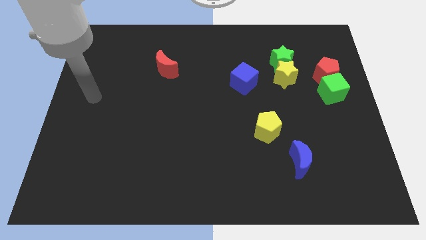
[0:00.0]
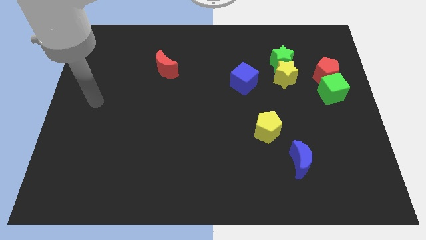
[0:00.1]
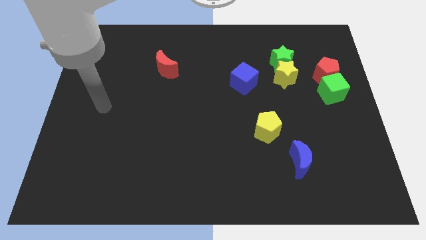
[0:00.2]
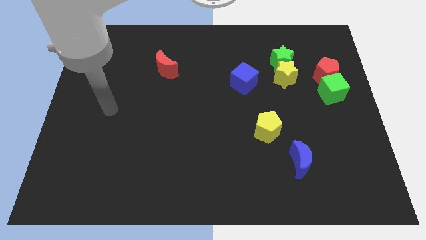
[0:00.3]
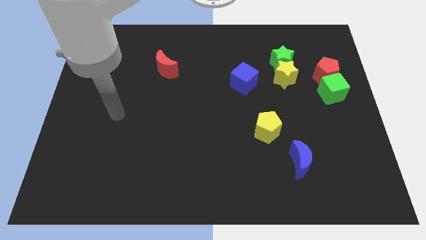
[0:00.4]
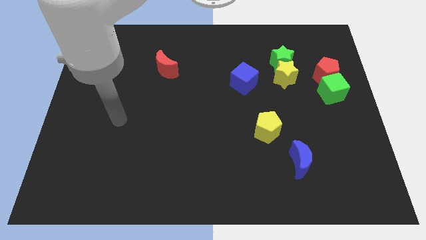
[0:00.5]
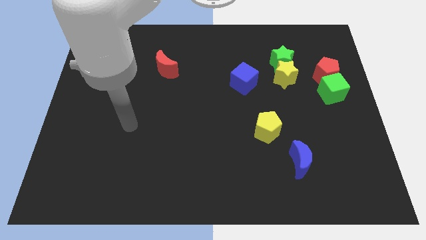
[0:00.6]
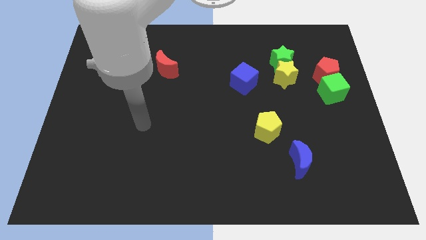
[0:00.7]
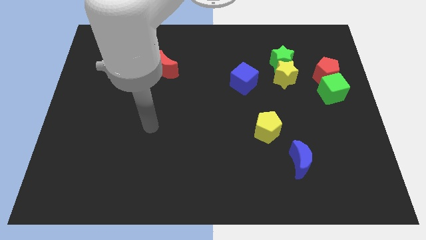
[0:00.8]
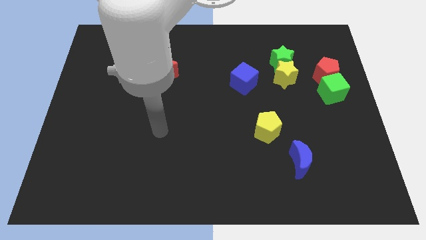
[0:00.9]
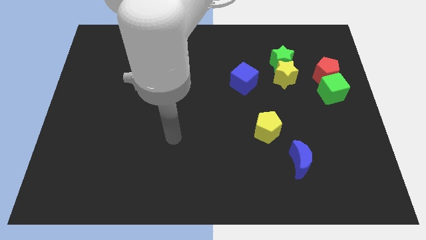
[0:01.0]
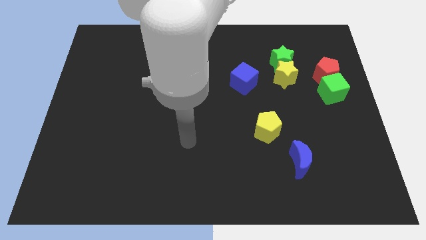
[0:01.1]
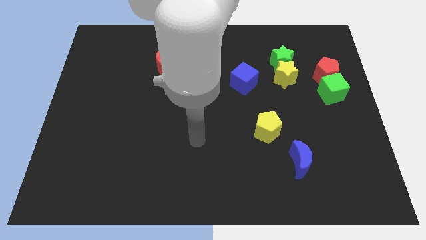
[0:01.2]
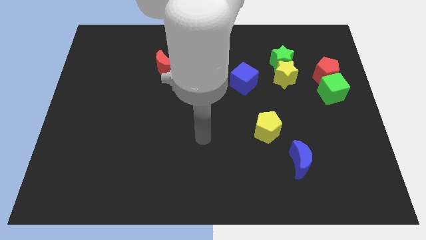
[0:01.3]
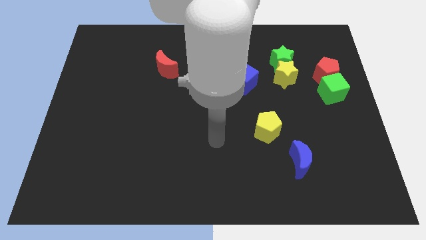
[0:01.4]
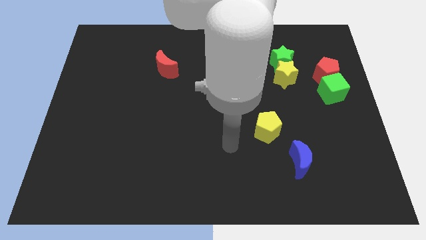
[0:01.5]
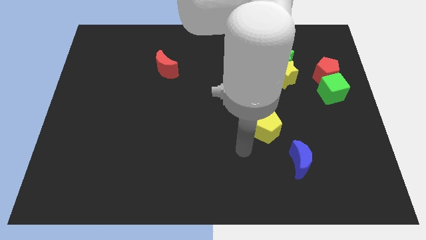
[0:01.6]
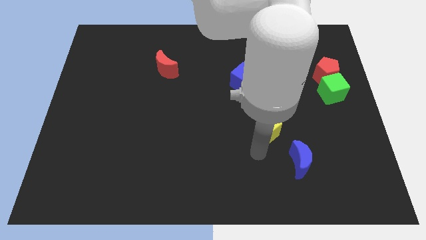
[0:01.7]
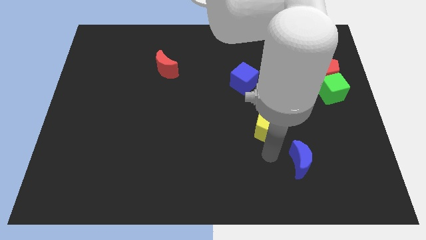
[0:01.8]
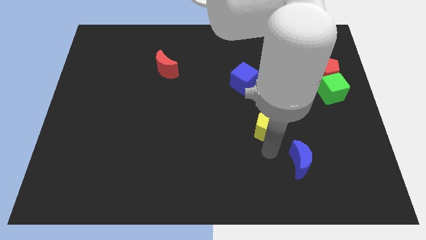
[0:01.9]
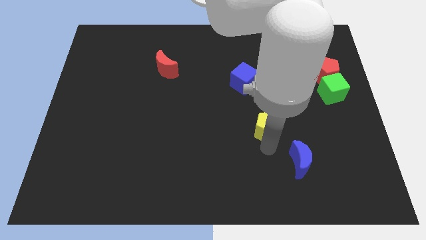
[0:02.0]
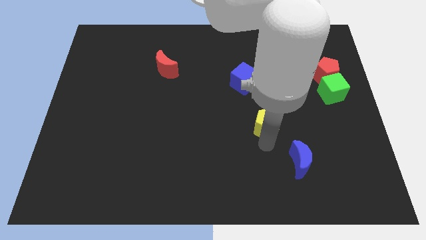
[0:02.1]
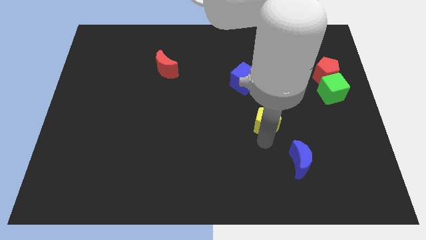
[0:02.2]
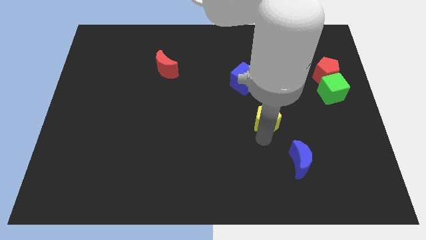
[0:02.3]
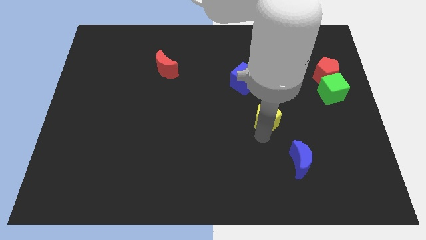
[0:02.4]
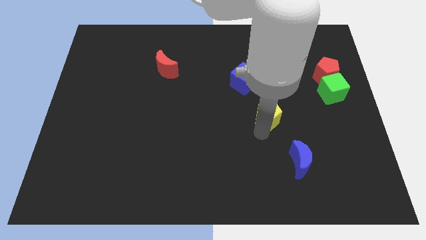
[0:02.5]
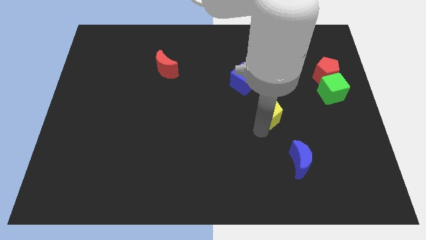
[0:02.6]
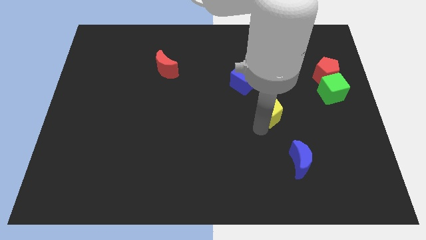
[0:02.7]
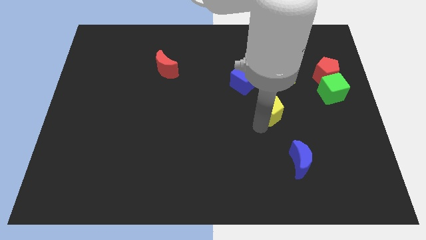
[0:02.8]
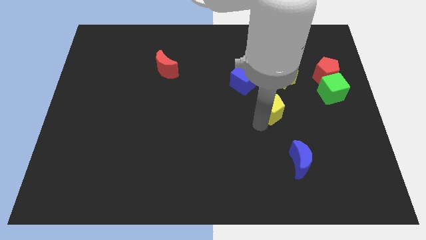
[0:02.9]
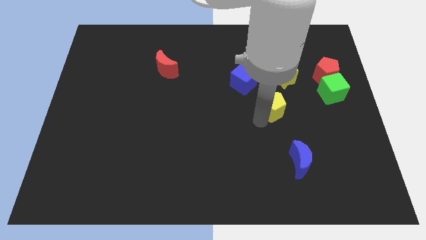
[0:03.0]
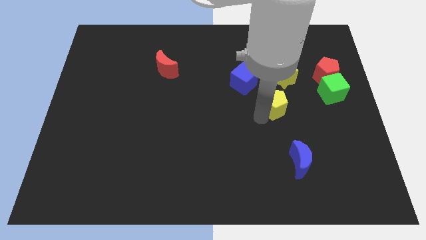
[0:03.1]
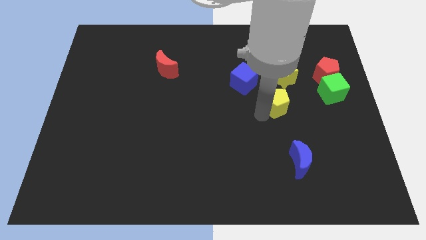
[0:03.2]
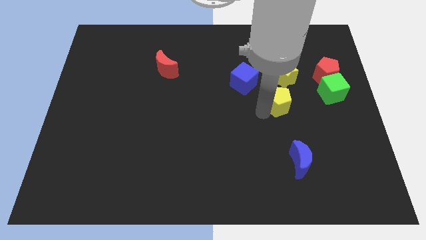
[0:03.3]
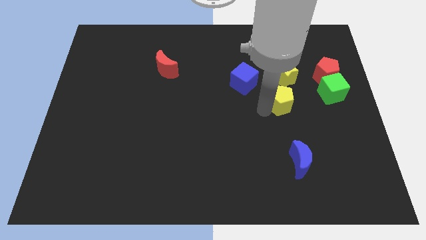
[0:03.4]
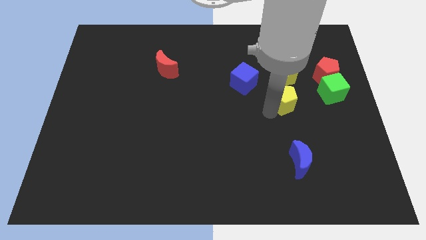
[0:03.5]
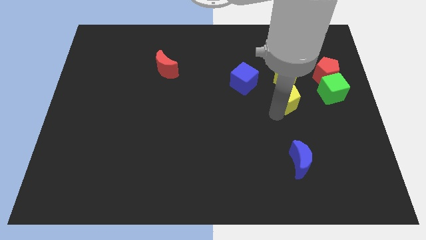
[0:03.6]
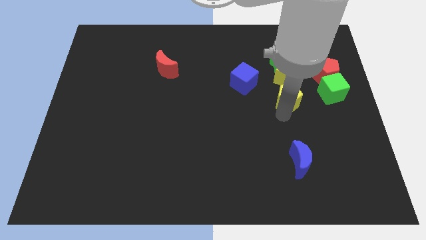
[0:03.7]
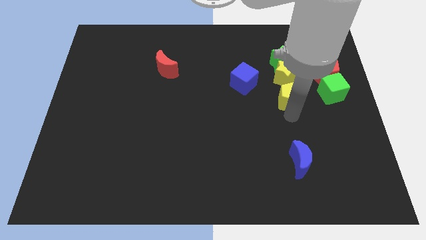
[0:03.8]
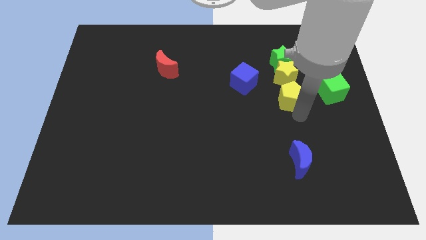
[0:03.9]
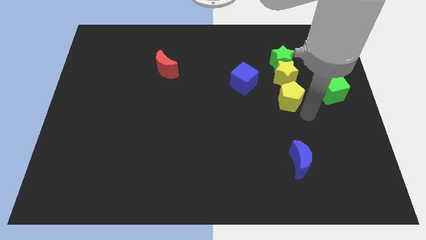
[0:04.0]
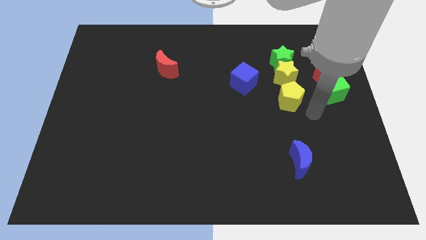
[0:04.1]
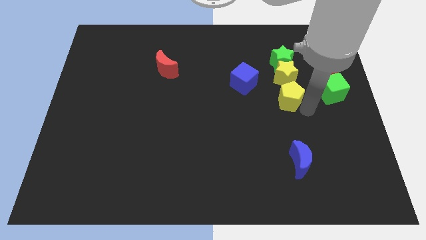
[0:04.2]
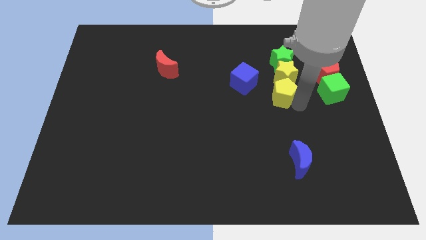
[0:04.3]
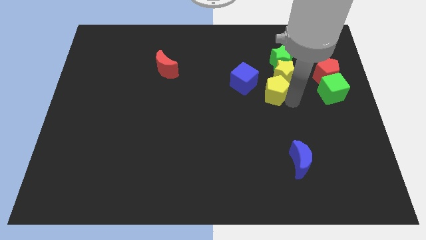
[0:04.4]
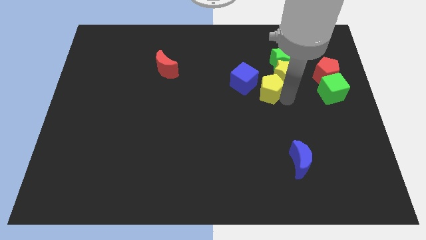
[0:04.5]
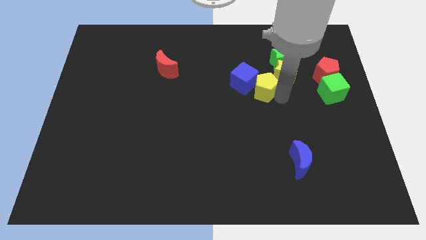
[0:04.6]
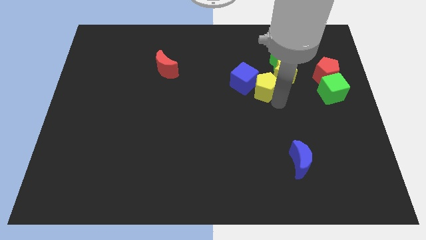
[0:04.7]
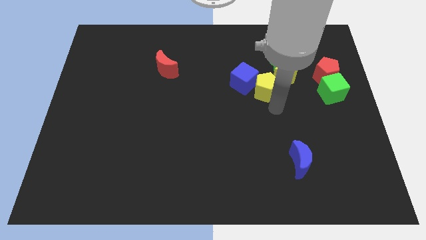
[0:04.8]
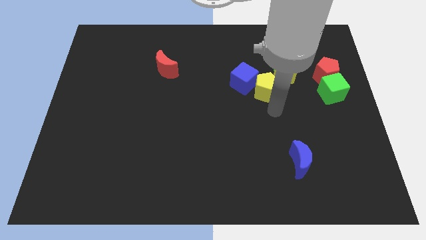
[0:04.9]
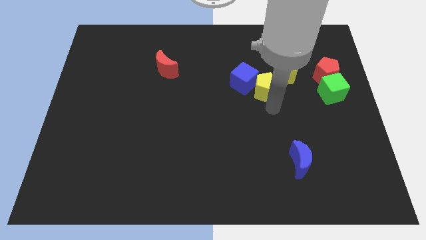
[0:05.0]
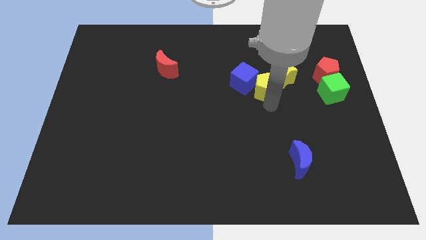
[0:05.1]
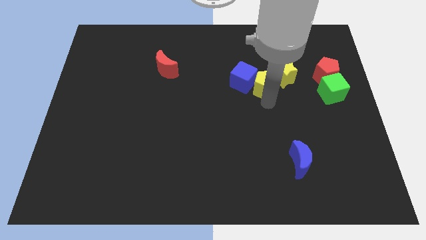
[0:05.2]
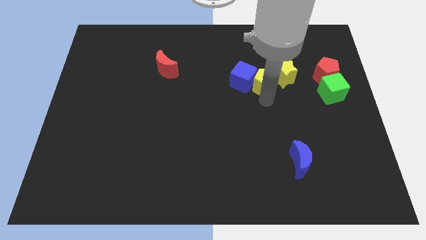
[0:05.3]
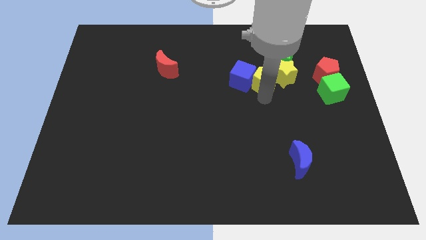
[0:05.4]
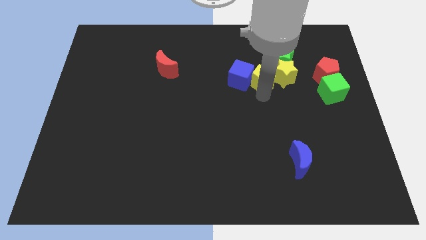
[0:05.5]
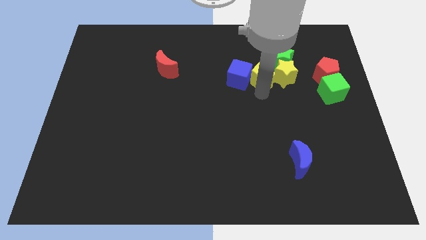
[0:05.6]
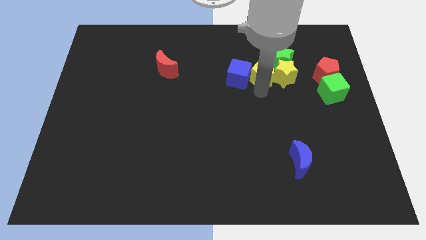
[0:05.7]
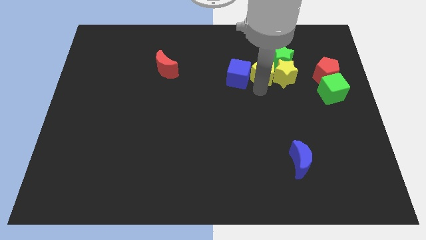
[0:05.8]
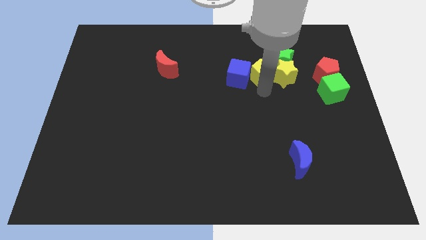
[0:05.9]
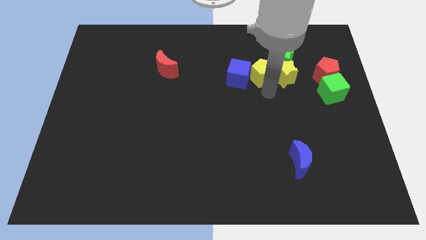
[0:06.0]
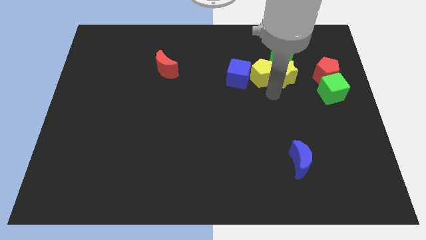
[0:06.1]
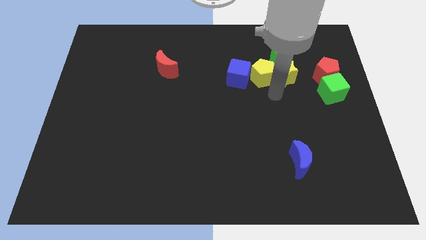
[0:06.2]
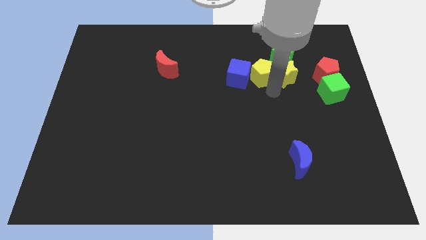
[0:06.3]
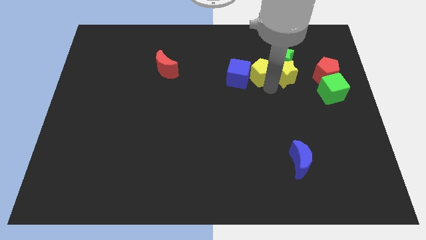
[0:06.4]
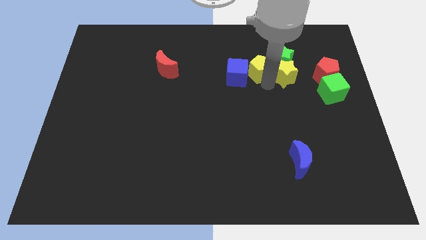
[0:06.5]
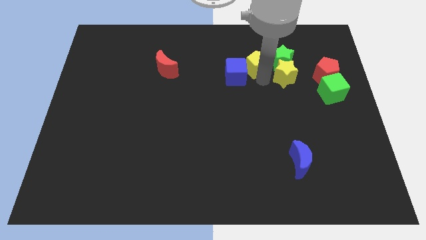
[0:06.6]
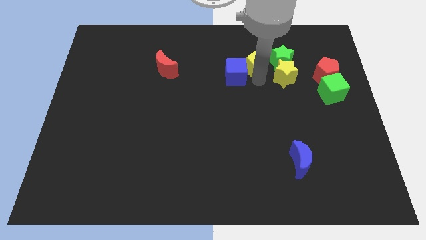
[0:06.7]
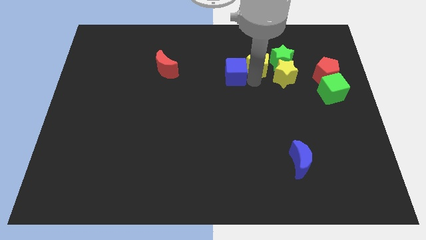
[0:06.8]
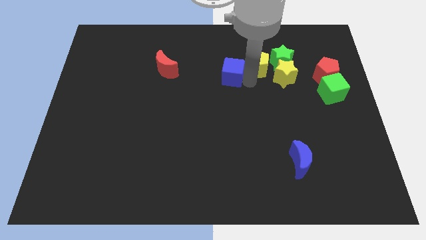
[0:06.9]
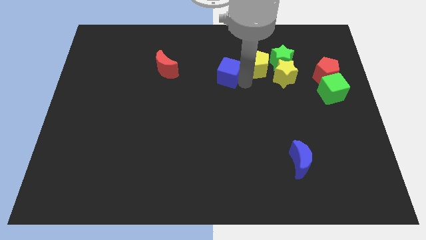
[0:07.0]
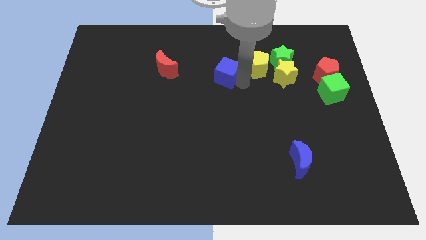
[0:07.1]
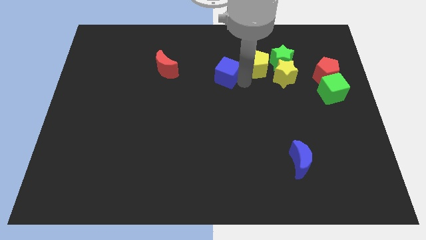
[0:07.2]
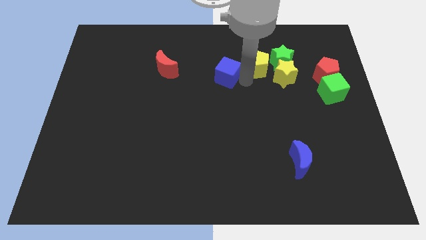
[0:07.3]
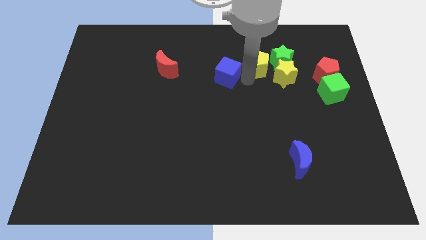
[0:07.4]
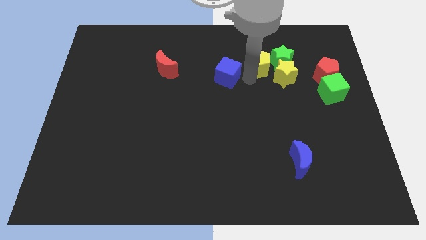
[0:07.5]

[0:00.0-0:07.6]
put the yellow pentagon close to the green star

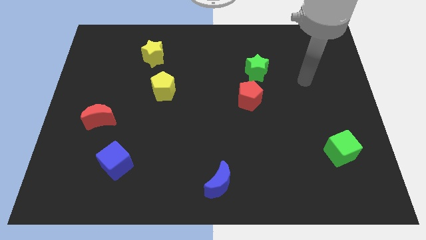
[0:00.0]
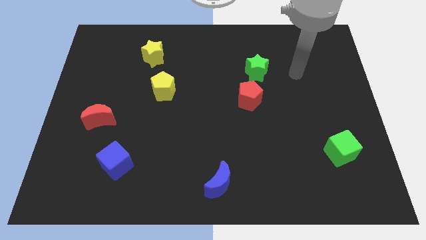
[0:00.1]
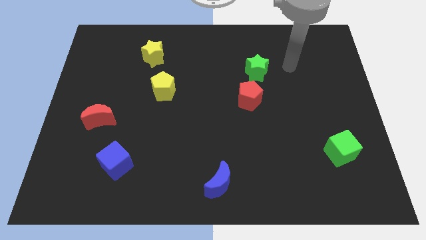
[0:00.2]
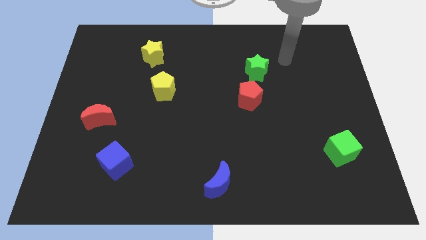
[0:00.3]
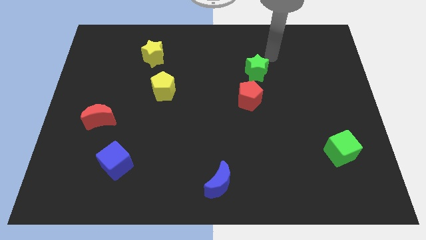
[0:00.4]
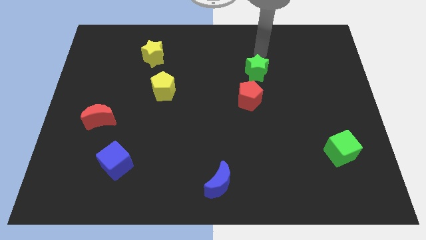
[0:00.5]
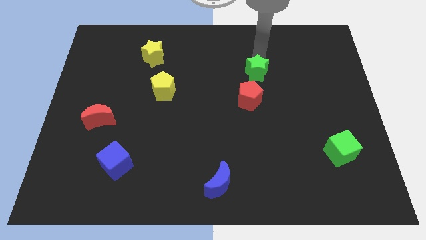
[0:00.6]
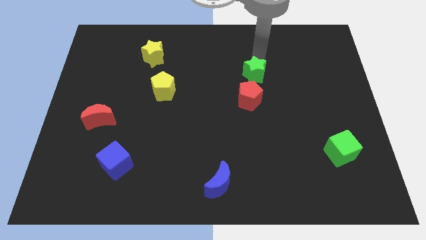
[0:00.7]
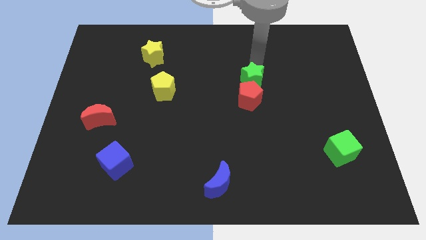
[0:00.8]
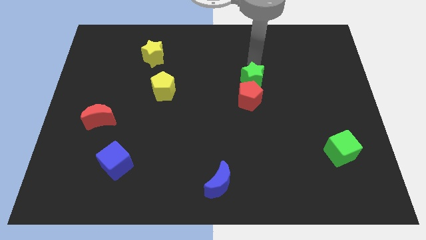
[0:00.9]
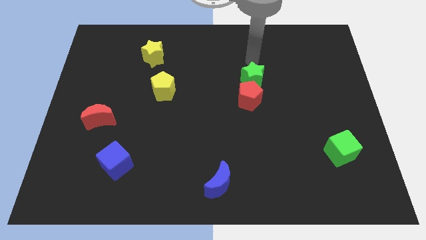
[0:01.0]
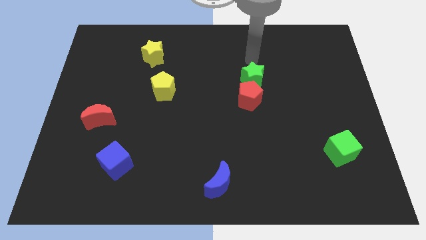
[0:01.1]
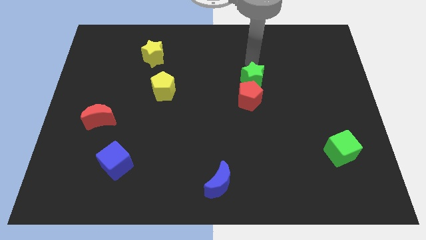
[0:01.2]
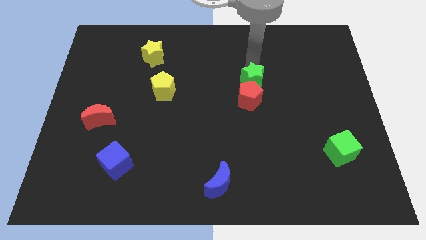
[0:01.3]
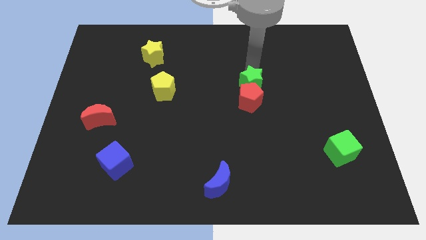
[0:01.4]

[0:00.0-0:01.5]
slide the green star close to the red pentagon
